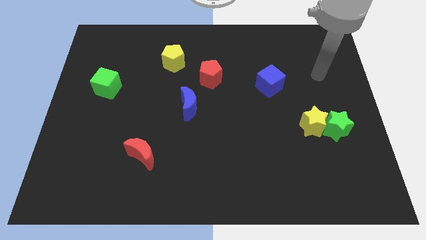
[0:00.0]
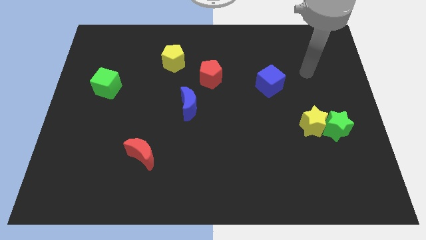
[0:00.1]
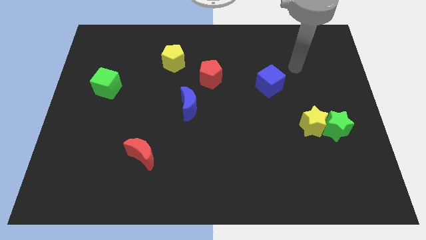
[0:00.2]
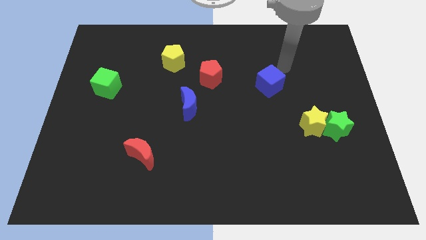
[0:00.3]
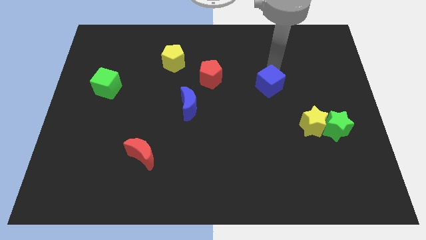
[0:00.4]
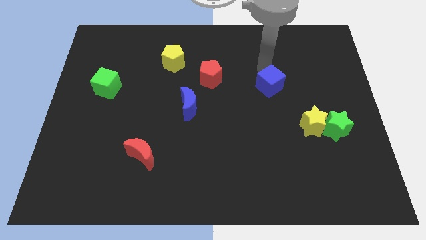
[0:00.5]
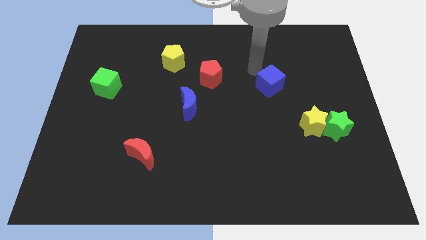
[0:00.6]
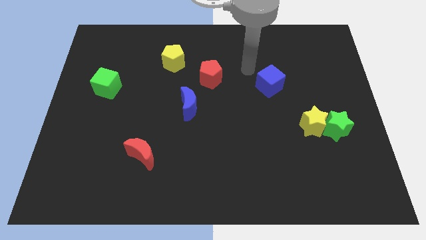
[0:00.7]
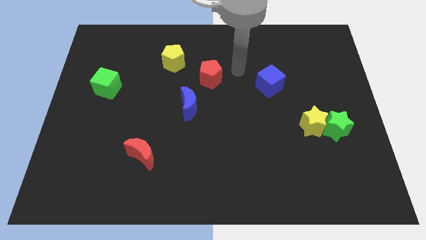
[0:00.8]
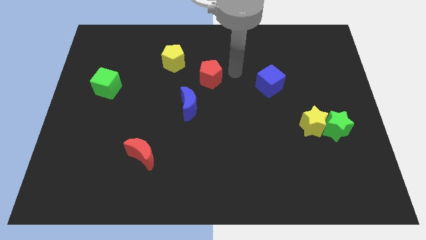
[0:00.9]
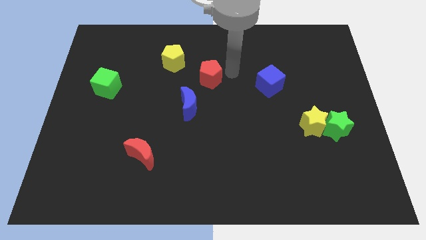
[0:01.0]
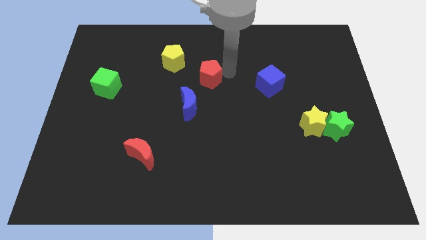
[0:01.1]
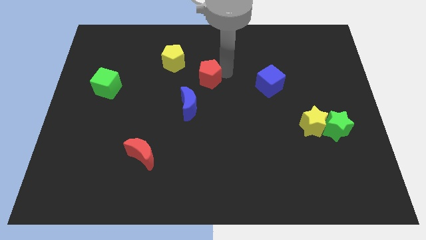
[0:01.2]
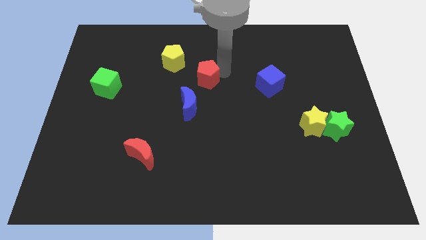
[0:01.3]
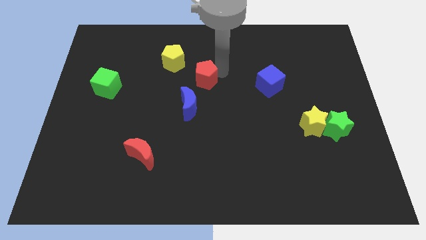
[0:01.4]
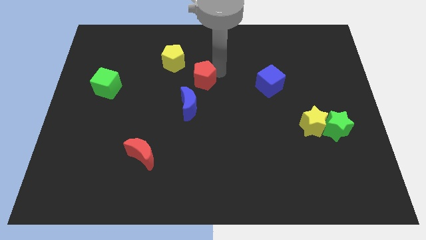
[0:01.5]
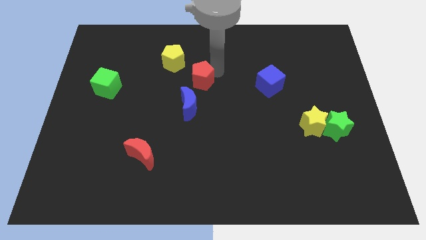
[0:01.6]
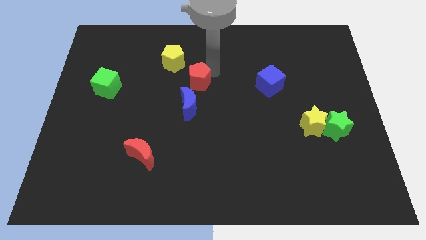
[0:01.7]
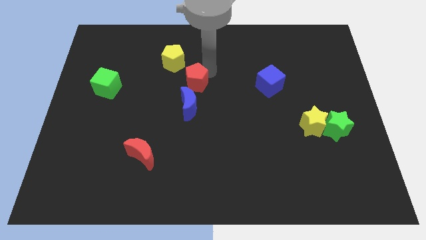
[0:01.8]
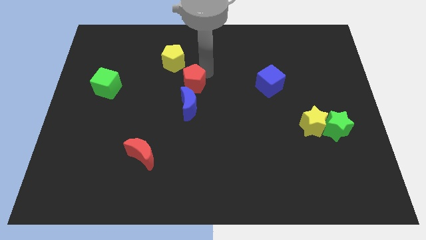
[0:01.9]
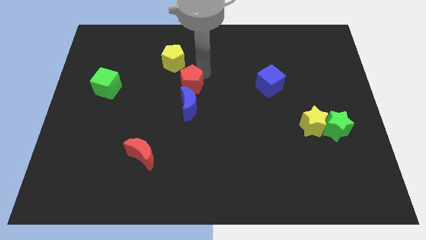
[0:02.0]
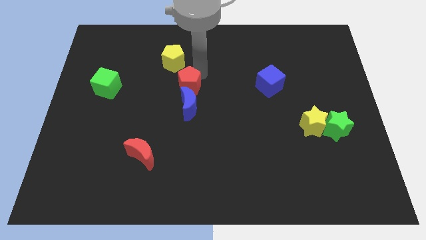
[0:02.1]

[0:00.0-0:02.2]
move the red pentagon to the top left of the blue moon

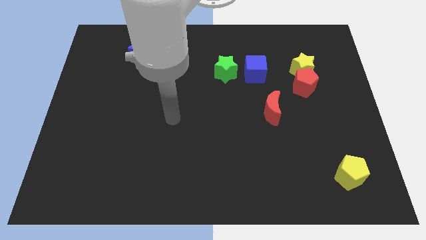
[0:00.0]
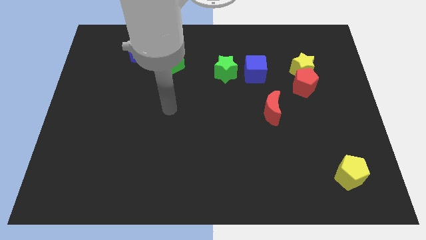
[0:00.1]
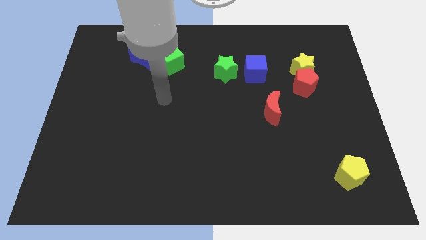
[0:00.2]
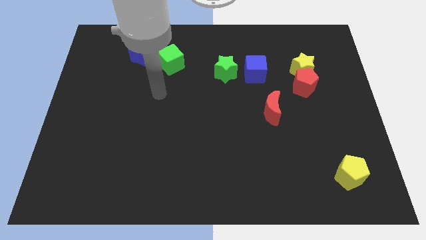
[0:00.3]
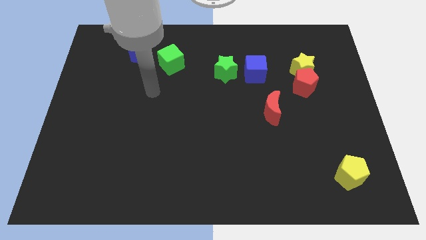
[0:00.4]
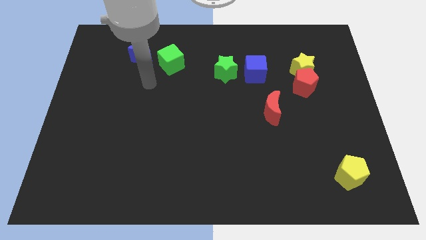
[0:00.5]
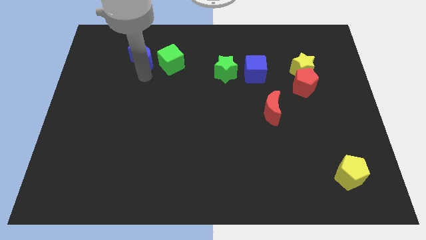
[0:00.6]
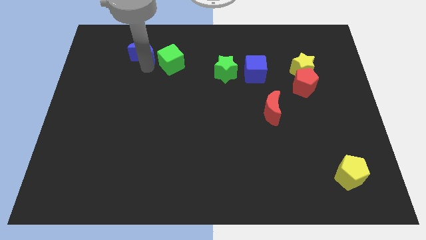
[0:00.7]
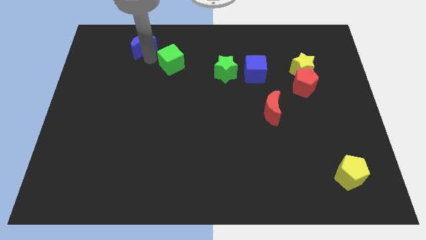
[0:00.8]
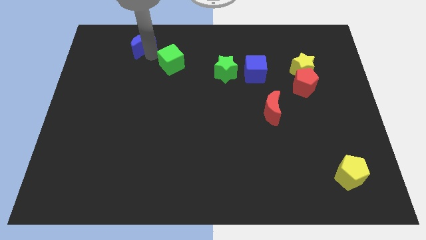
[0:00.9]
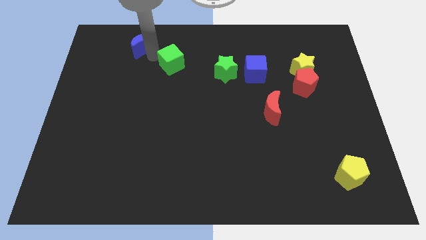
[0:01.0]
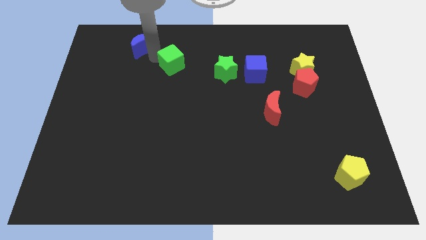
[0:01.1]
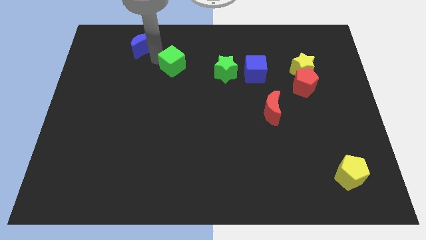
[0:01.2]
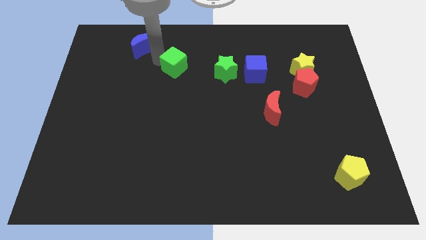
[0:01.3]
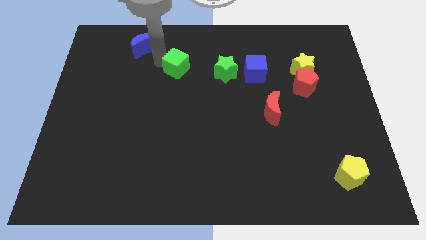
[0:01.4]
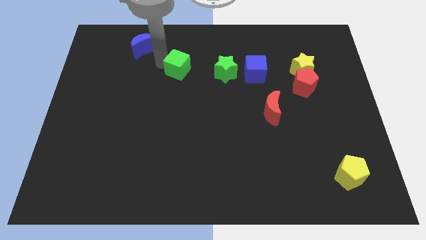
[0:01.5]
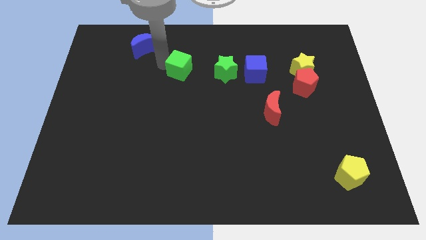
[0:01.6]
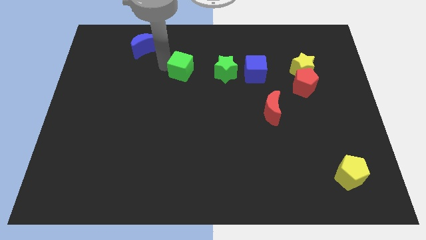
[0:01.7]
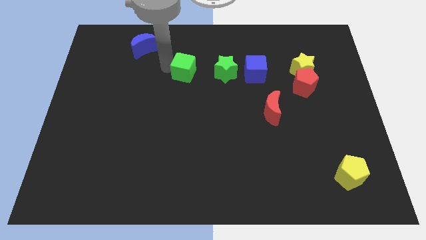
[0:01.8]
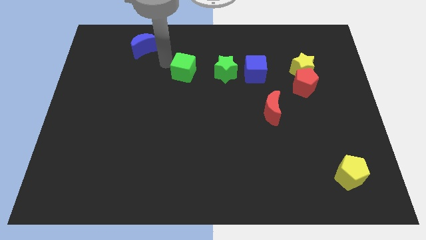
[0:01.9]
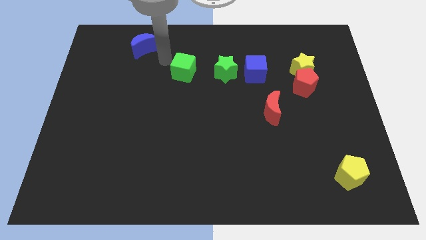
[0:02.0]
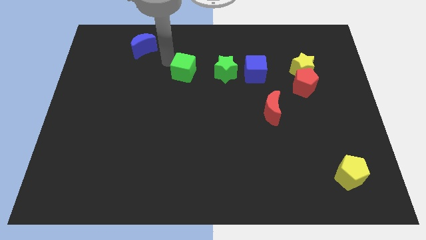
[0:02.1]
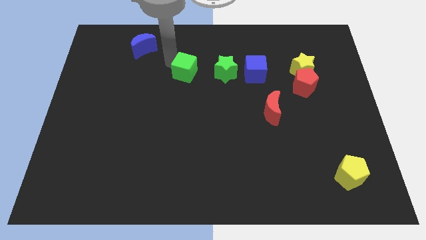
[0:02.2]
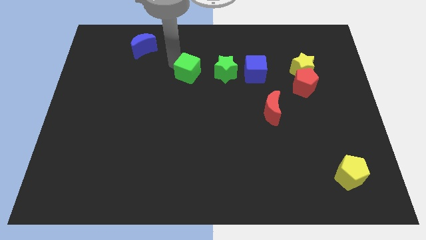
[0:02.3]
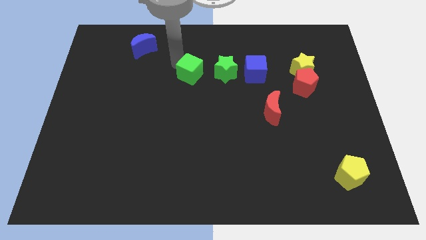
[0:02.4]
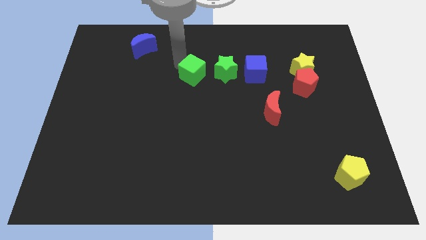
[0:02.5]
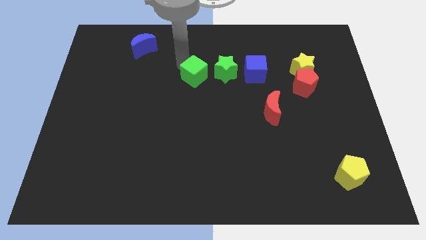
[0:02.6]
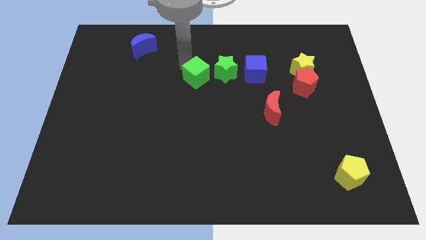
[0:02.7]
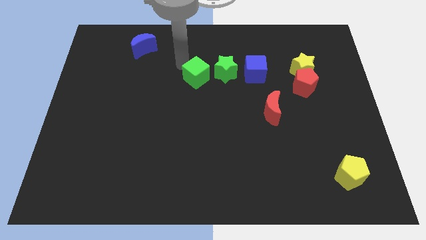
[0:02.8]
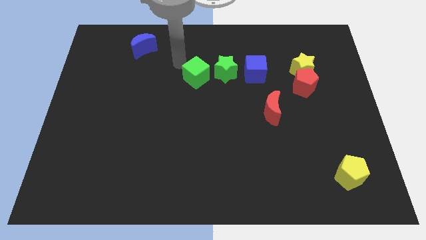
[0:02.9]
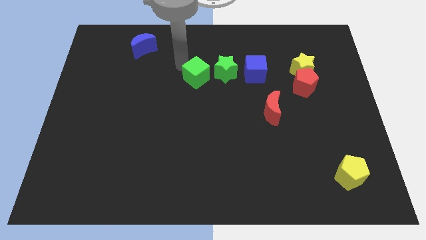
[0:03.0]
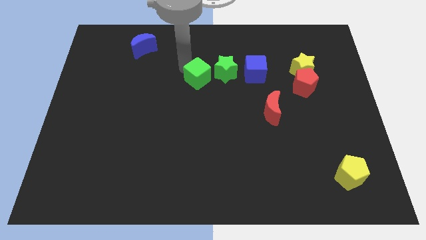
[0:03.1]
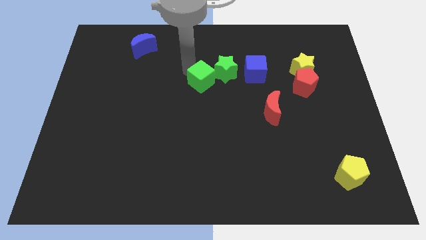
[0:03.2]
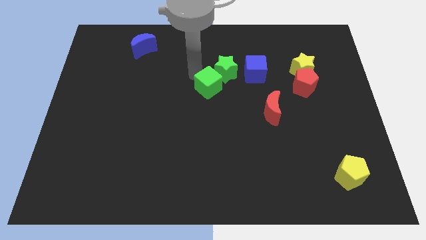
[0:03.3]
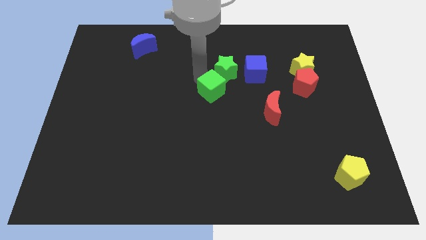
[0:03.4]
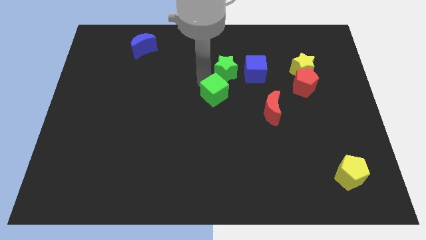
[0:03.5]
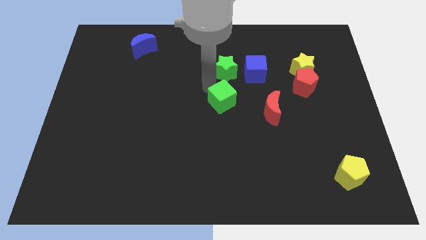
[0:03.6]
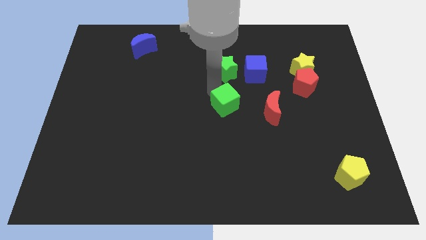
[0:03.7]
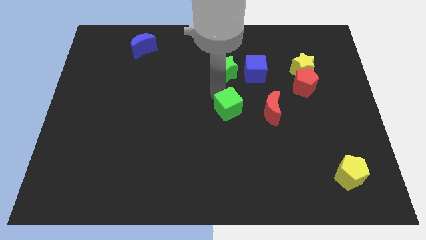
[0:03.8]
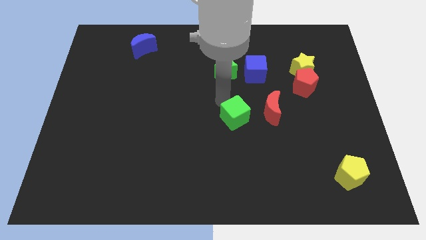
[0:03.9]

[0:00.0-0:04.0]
move the green cube diagonally down and to the left of the red moon

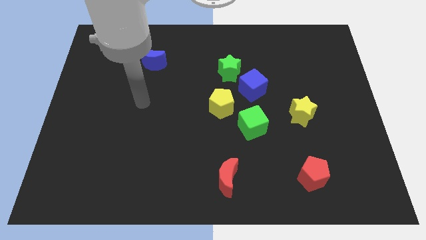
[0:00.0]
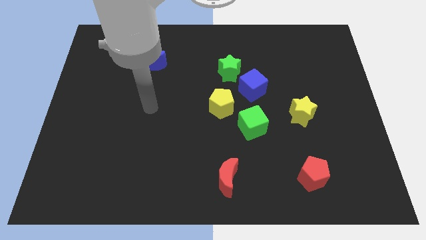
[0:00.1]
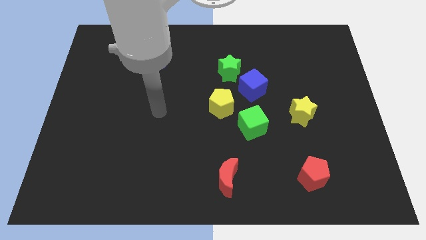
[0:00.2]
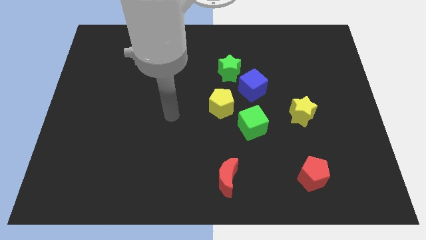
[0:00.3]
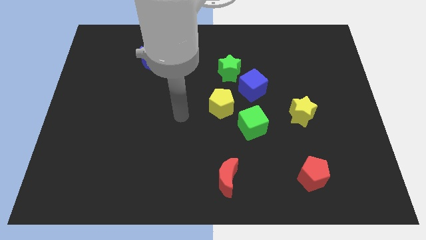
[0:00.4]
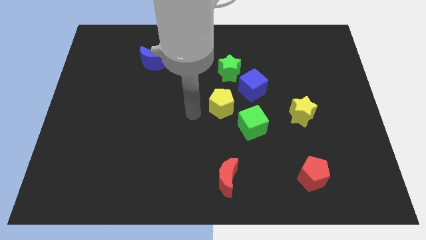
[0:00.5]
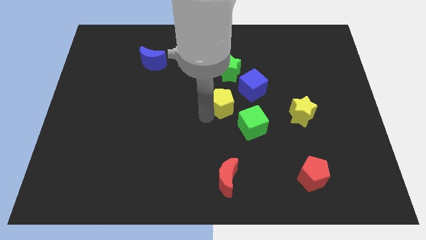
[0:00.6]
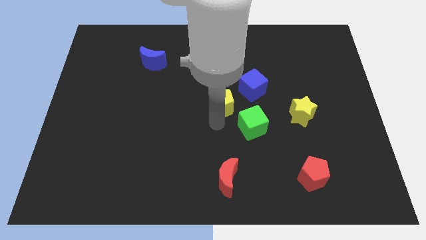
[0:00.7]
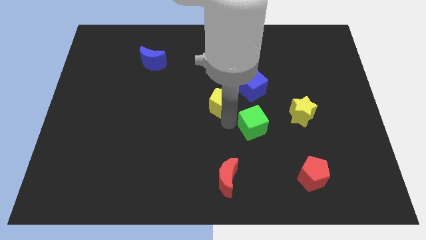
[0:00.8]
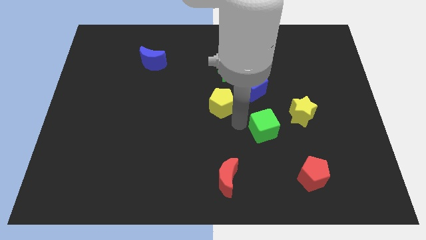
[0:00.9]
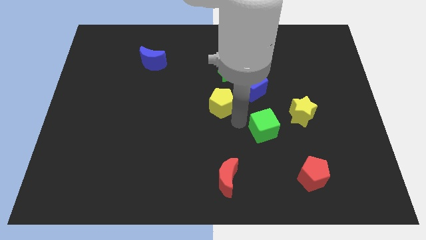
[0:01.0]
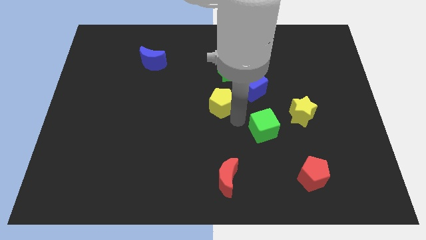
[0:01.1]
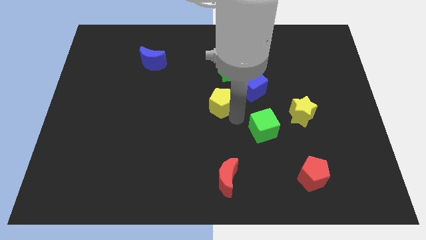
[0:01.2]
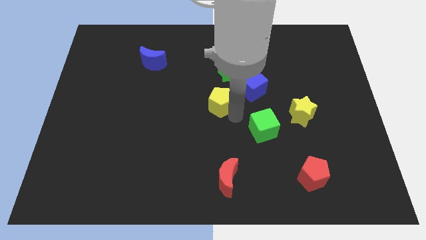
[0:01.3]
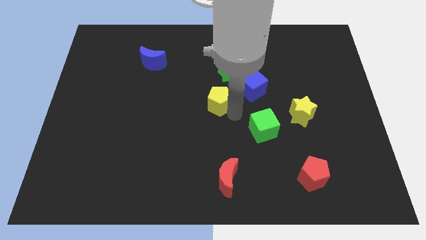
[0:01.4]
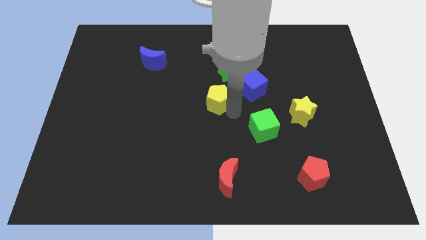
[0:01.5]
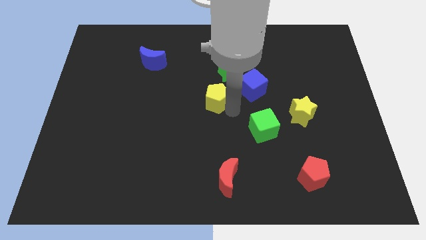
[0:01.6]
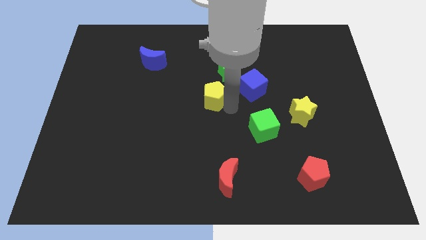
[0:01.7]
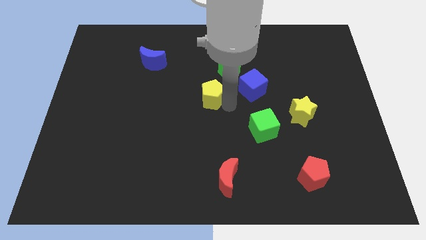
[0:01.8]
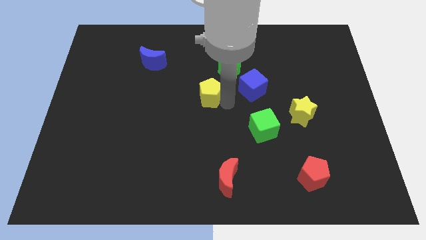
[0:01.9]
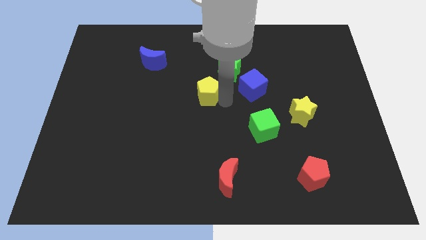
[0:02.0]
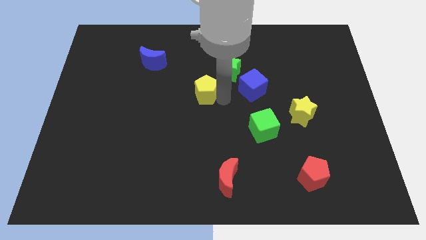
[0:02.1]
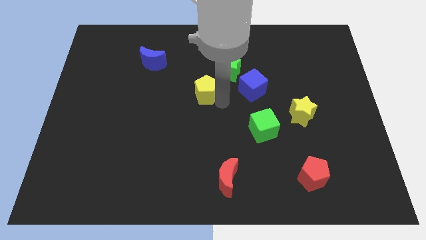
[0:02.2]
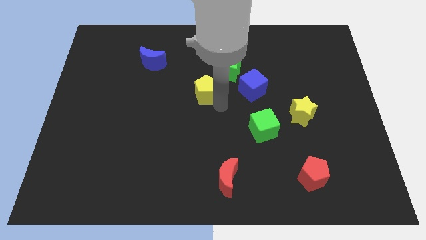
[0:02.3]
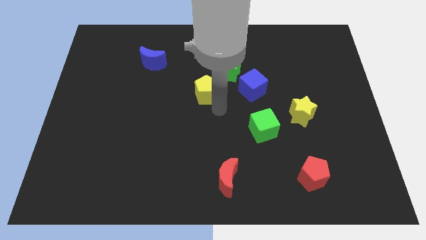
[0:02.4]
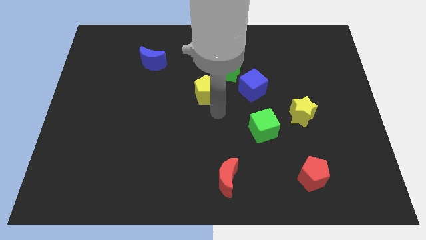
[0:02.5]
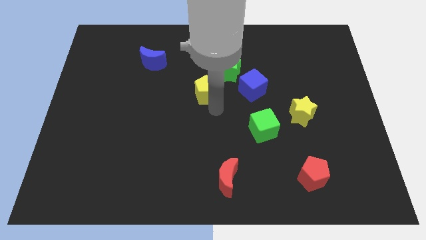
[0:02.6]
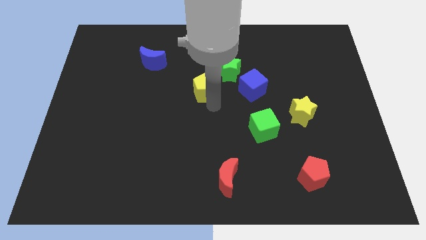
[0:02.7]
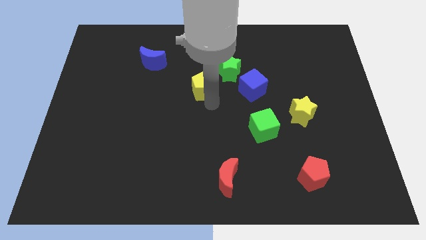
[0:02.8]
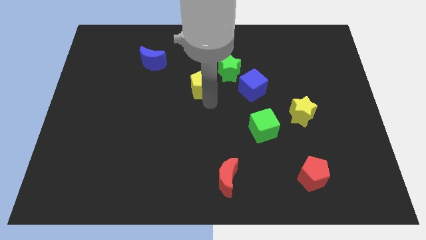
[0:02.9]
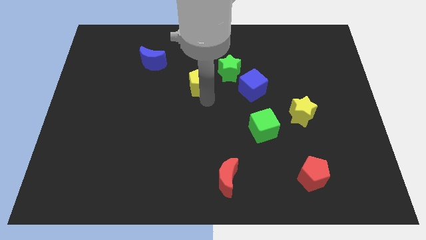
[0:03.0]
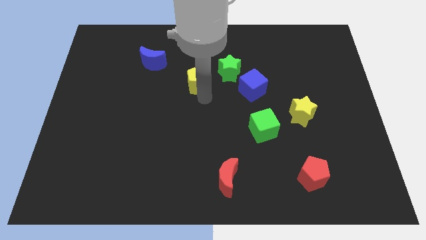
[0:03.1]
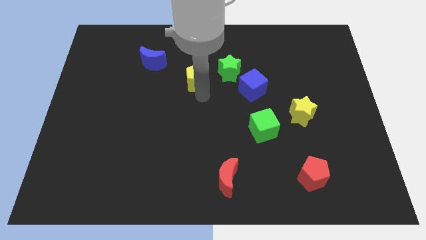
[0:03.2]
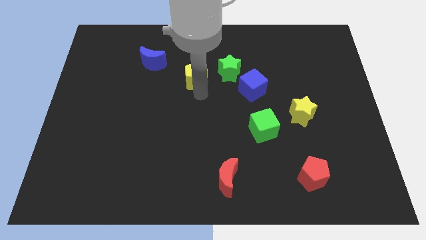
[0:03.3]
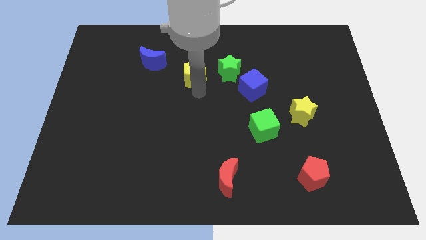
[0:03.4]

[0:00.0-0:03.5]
slide the yellow pentagon to the right of the blue moon
